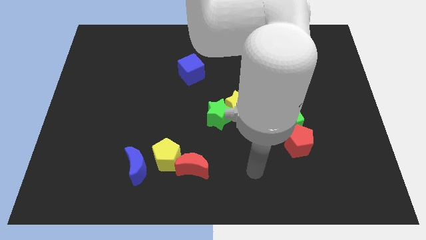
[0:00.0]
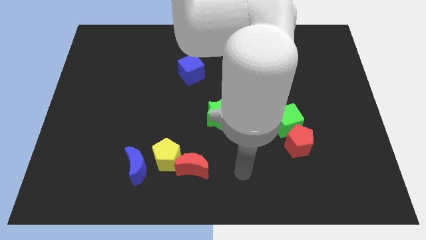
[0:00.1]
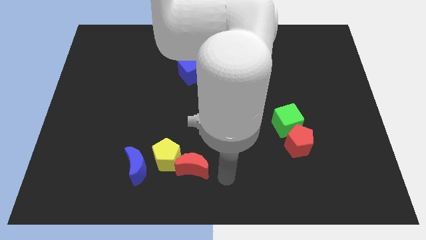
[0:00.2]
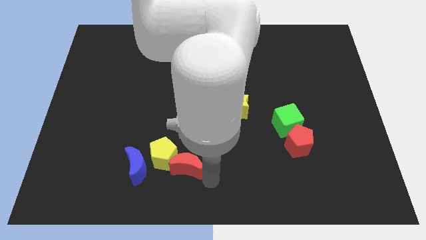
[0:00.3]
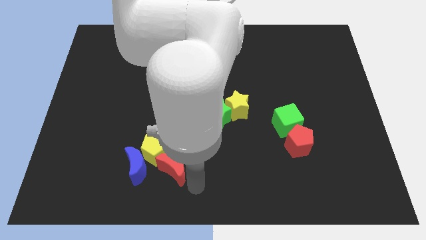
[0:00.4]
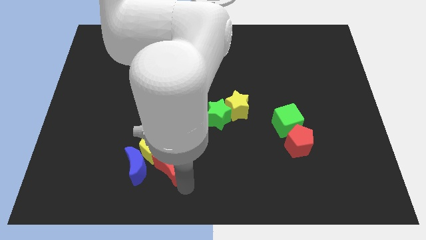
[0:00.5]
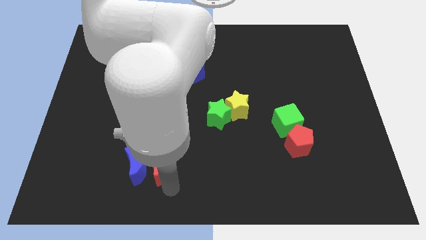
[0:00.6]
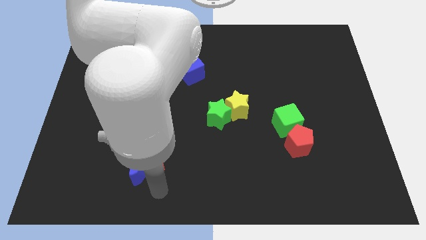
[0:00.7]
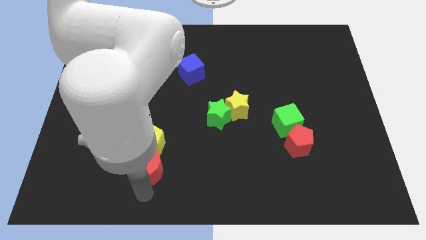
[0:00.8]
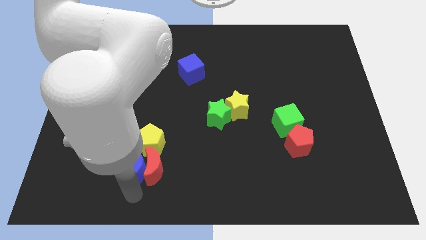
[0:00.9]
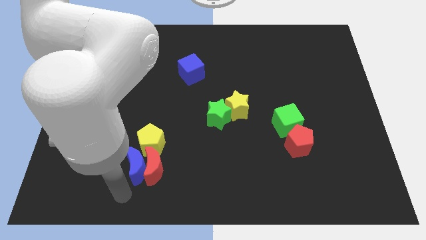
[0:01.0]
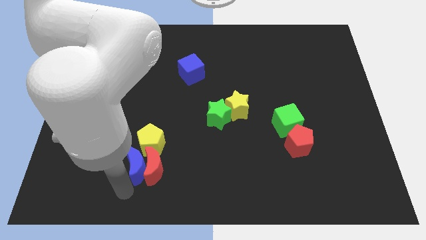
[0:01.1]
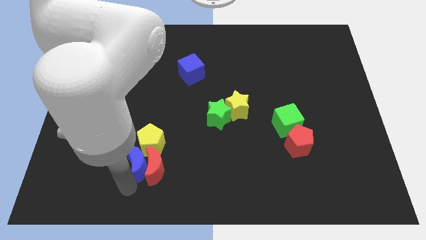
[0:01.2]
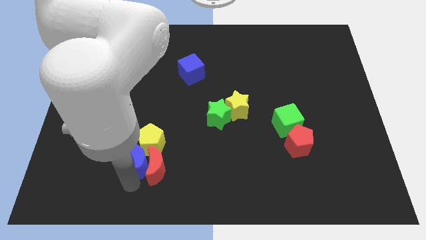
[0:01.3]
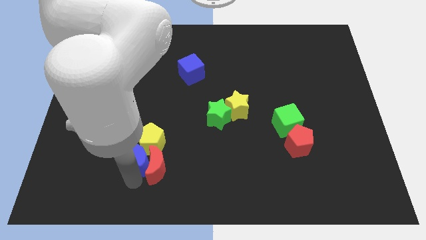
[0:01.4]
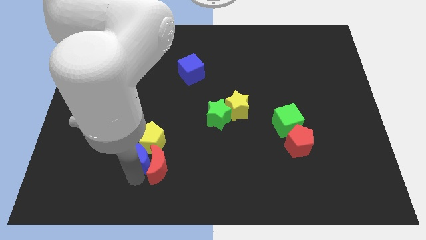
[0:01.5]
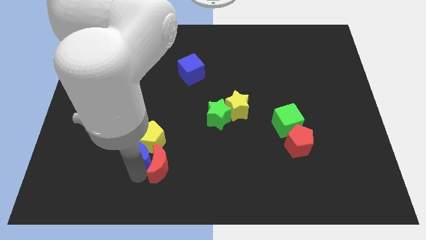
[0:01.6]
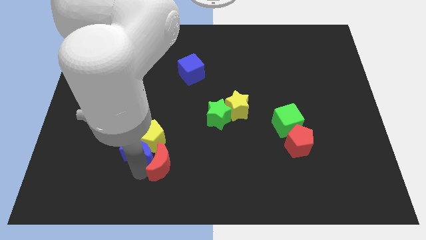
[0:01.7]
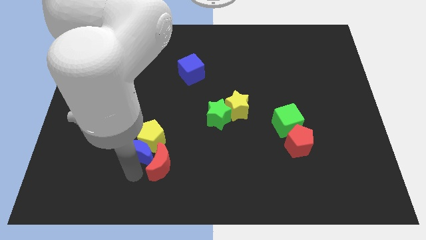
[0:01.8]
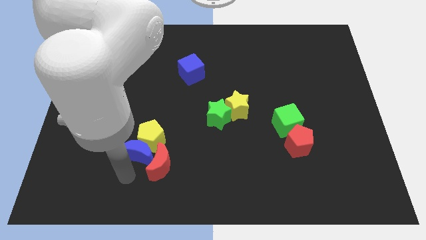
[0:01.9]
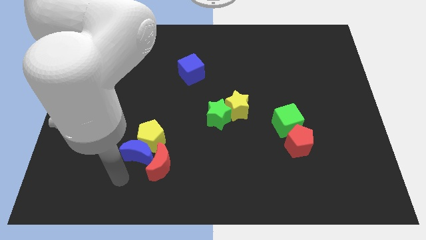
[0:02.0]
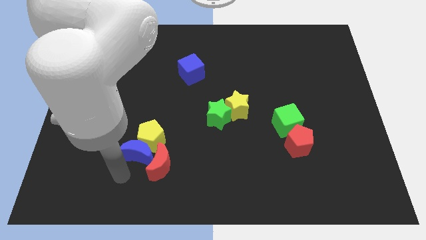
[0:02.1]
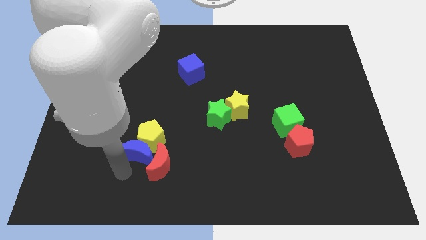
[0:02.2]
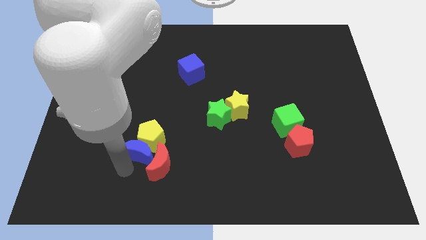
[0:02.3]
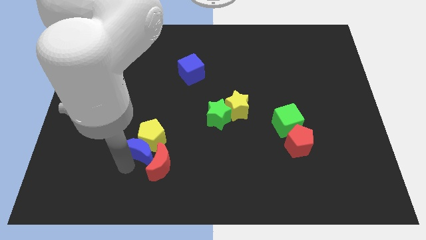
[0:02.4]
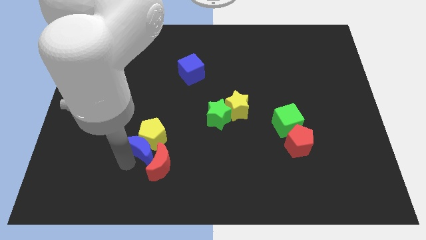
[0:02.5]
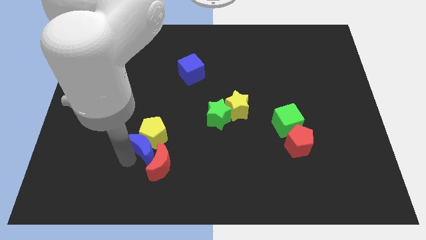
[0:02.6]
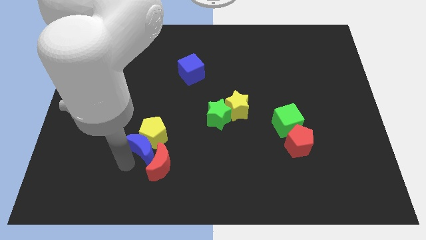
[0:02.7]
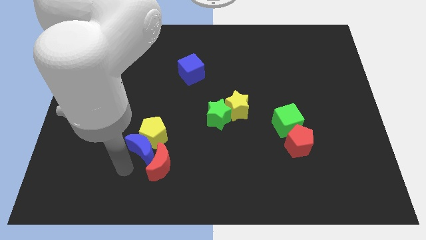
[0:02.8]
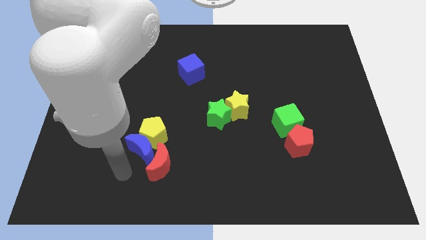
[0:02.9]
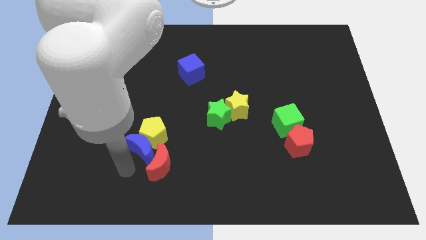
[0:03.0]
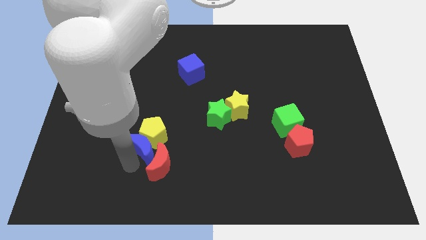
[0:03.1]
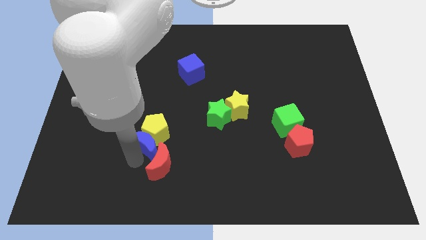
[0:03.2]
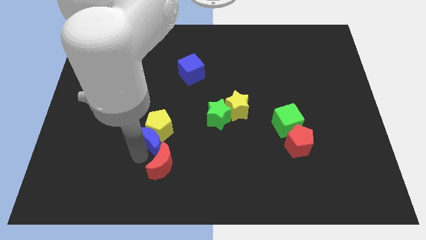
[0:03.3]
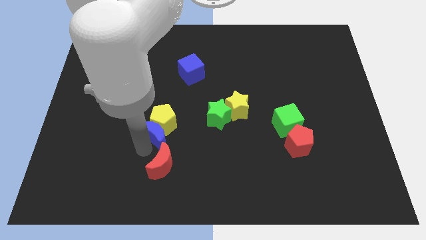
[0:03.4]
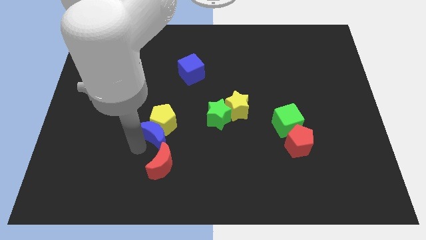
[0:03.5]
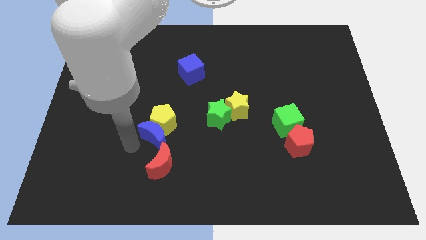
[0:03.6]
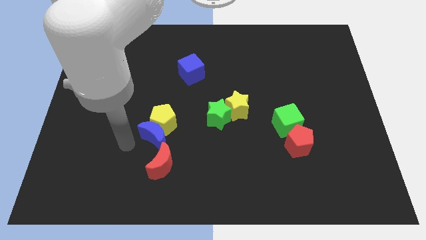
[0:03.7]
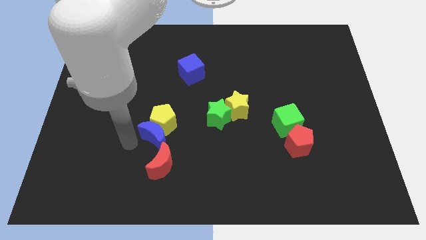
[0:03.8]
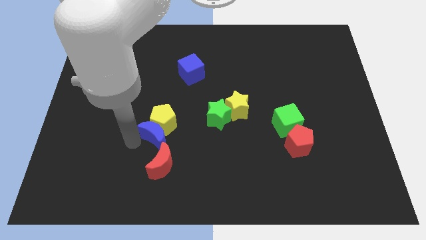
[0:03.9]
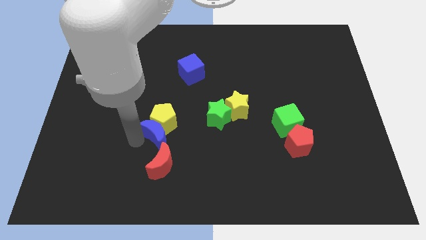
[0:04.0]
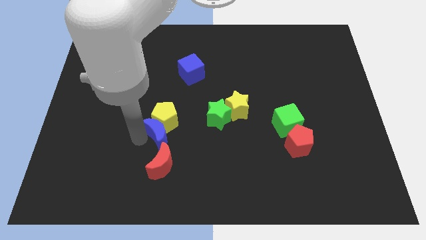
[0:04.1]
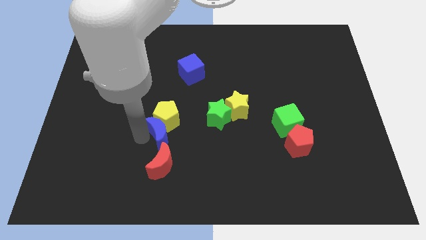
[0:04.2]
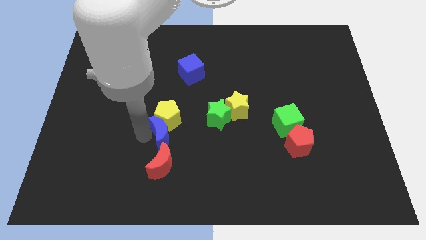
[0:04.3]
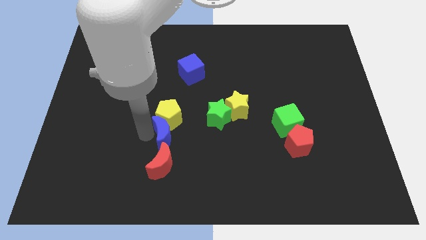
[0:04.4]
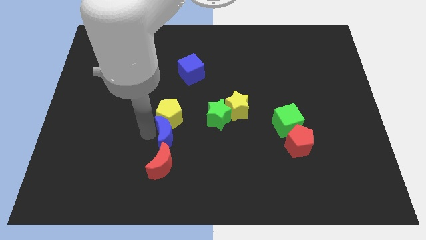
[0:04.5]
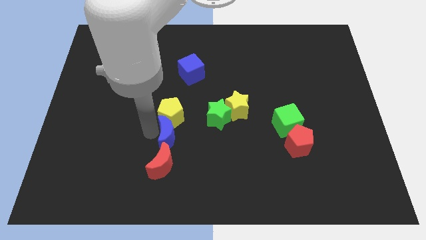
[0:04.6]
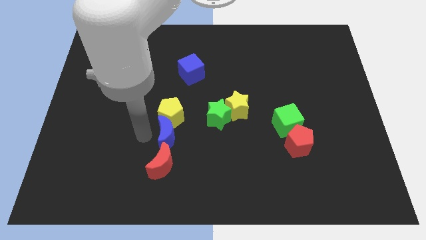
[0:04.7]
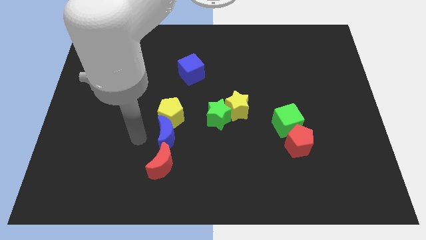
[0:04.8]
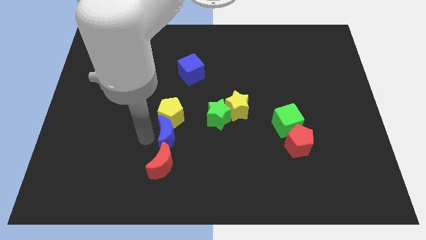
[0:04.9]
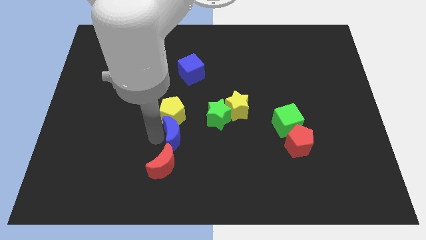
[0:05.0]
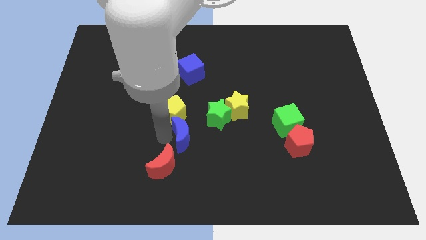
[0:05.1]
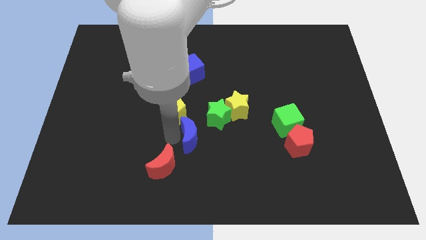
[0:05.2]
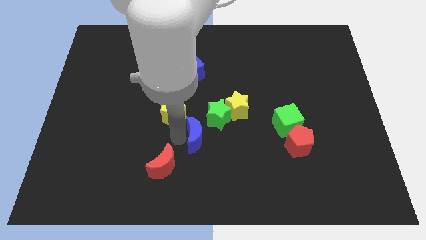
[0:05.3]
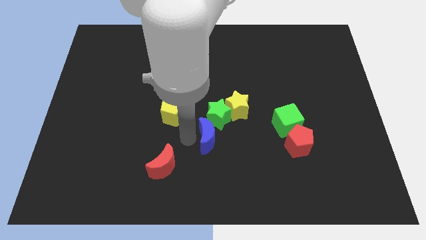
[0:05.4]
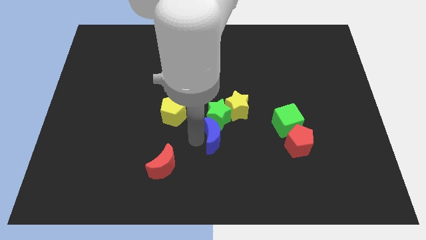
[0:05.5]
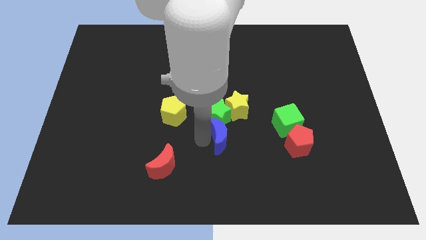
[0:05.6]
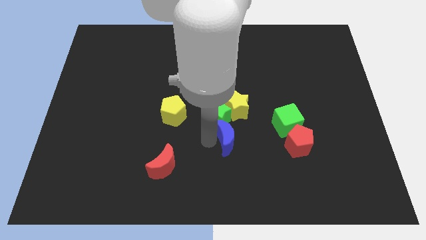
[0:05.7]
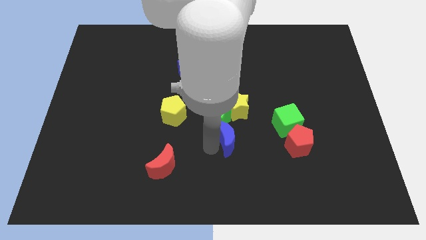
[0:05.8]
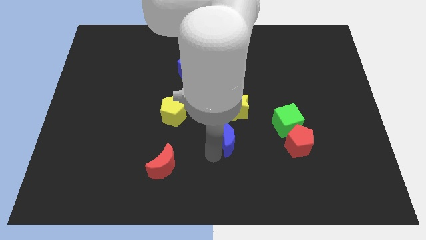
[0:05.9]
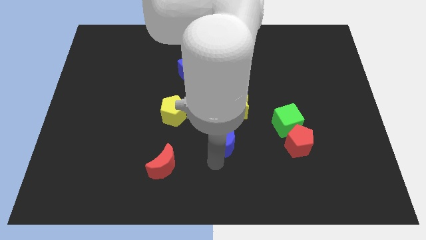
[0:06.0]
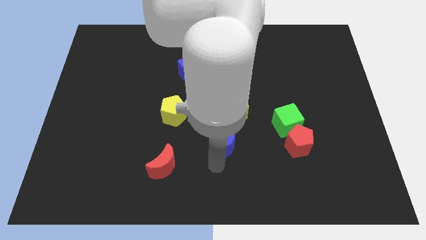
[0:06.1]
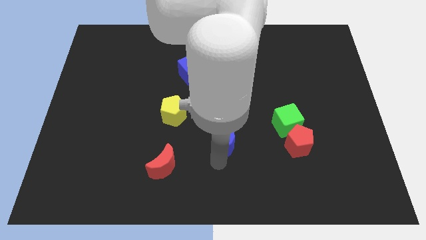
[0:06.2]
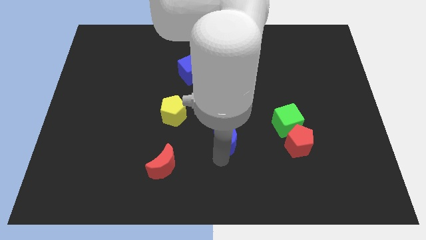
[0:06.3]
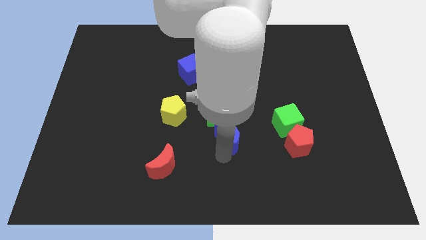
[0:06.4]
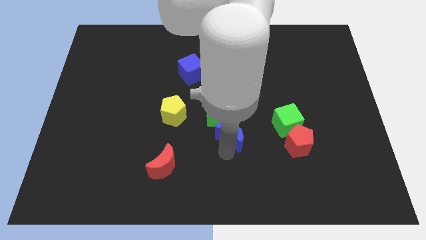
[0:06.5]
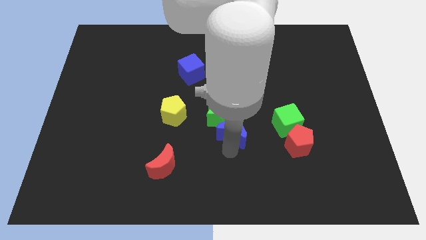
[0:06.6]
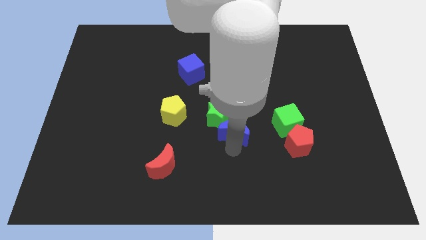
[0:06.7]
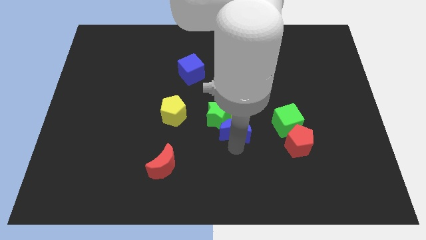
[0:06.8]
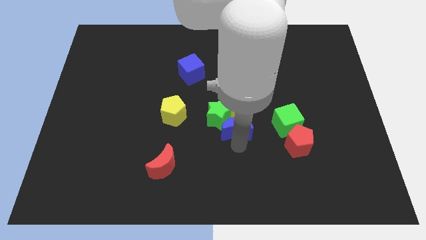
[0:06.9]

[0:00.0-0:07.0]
slide the blue moon next to the yellow star
